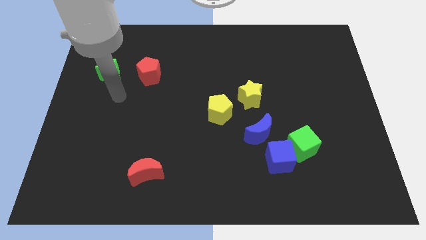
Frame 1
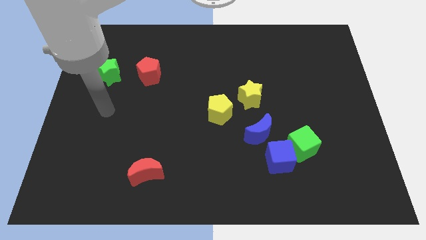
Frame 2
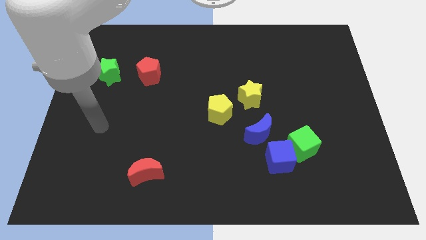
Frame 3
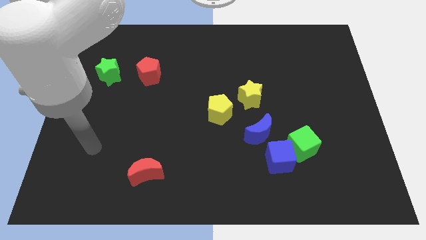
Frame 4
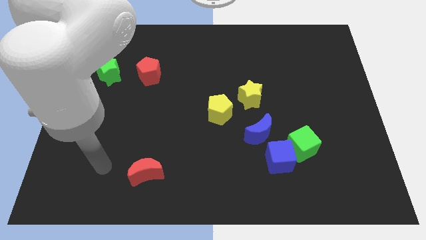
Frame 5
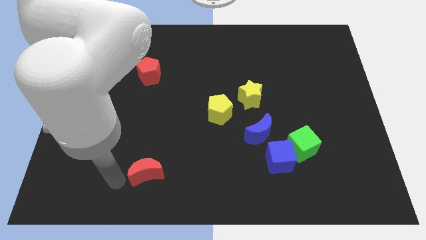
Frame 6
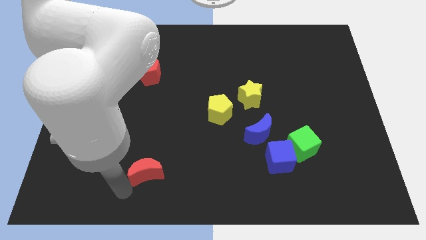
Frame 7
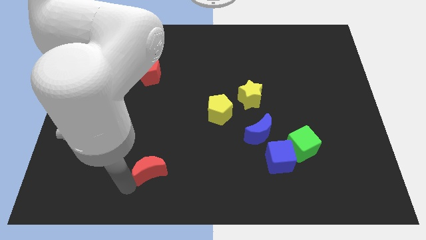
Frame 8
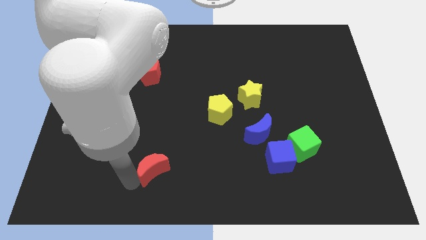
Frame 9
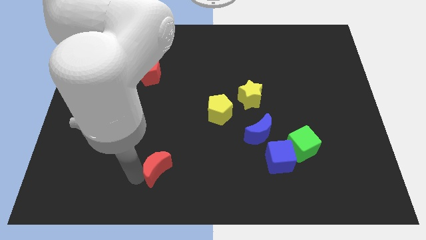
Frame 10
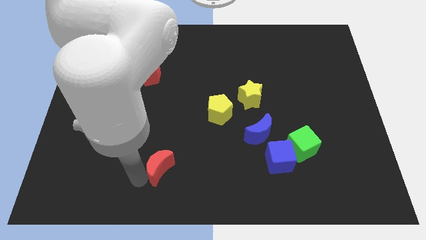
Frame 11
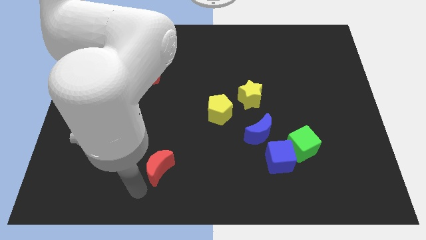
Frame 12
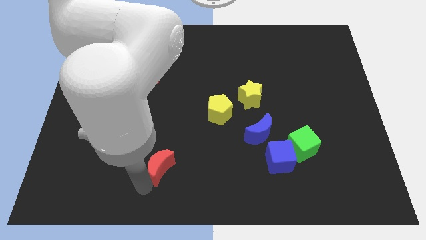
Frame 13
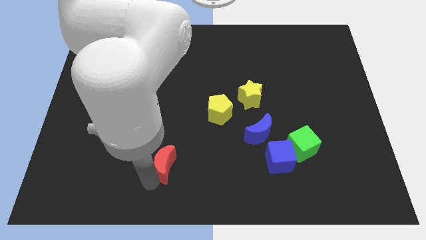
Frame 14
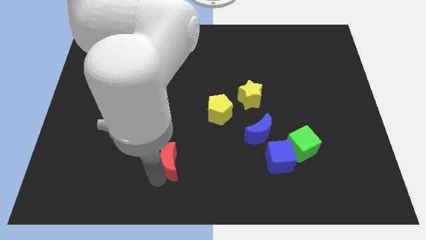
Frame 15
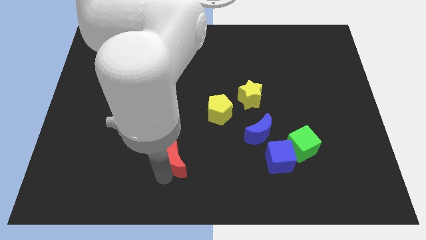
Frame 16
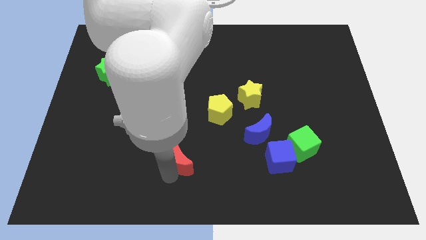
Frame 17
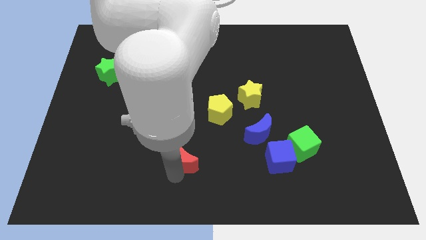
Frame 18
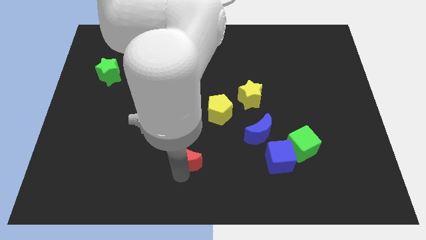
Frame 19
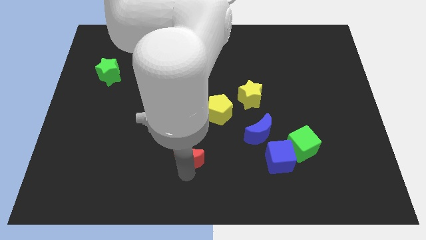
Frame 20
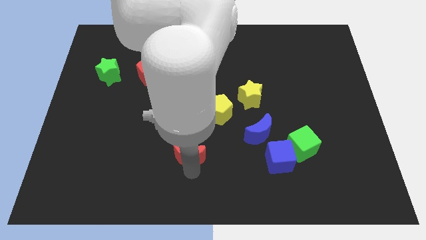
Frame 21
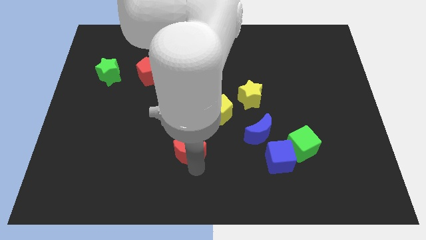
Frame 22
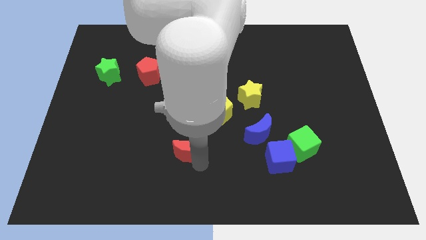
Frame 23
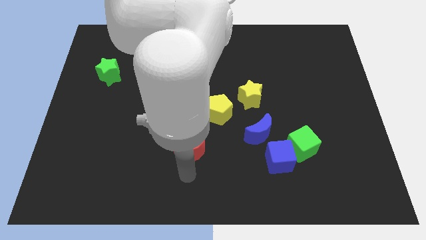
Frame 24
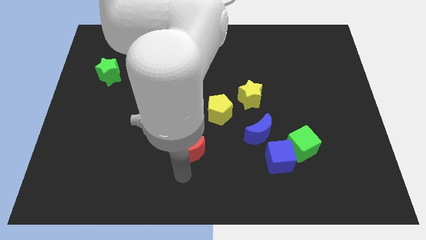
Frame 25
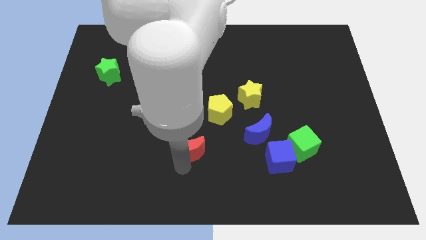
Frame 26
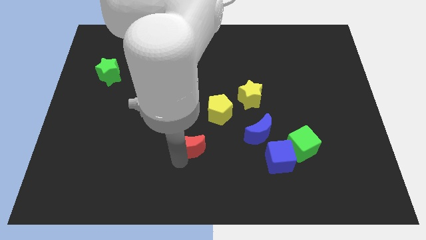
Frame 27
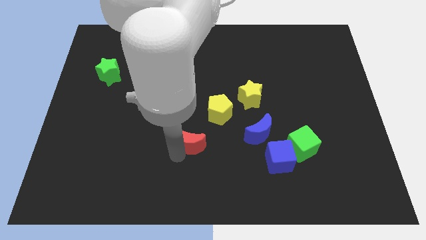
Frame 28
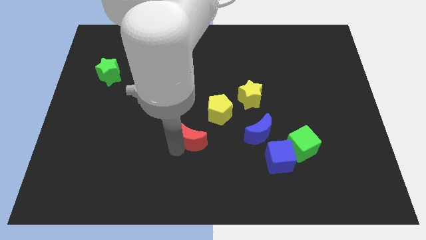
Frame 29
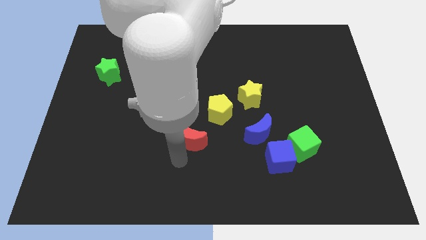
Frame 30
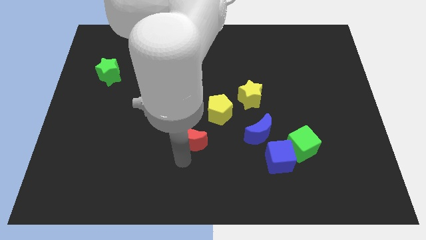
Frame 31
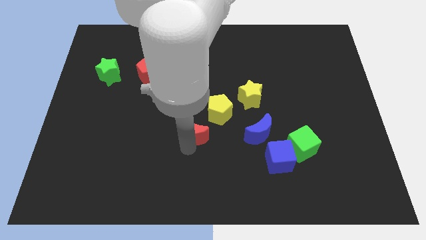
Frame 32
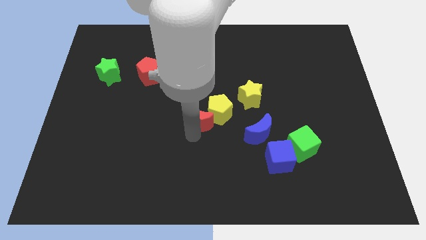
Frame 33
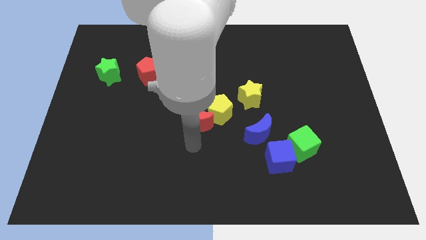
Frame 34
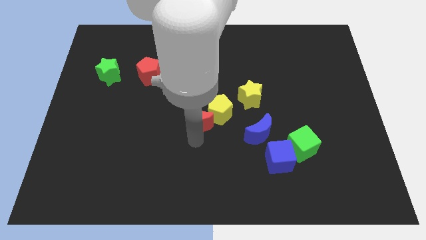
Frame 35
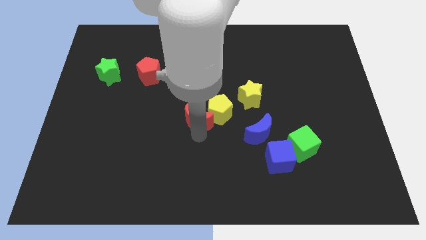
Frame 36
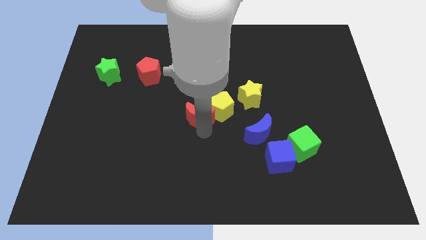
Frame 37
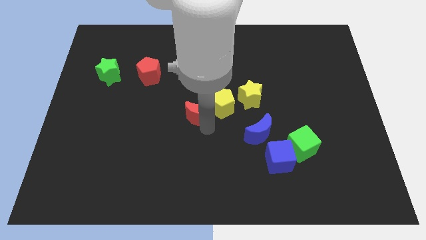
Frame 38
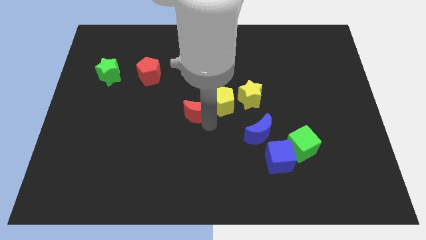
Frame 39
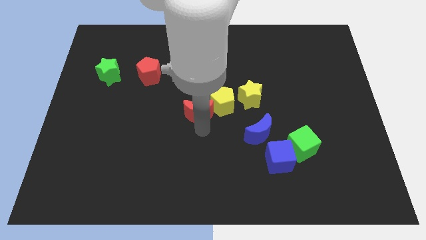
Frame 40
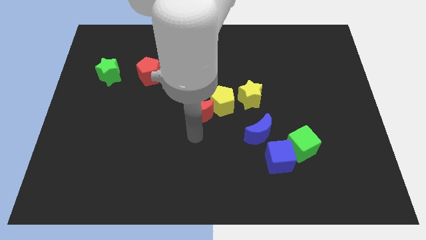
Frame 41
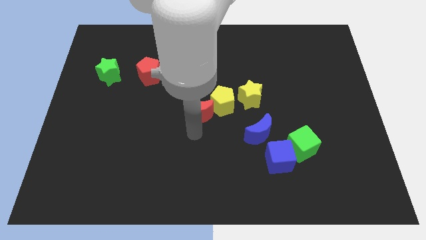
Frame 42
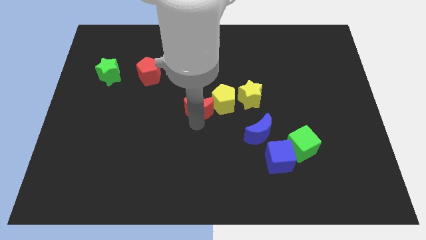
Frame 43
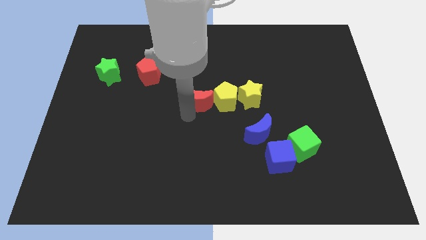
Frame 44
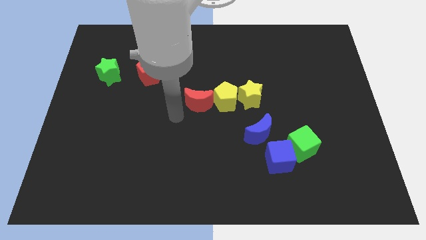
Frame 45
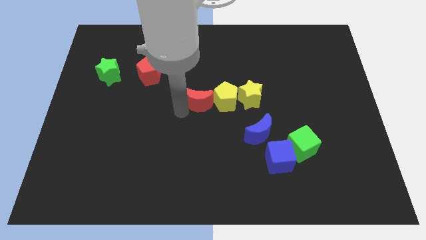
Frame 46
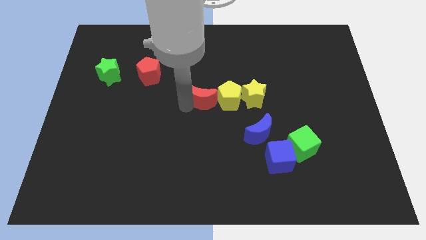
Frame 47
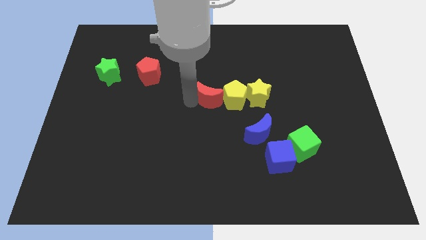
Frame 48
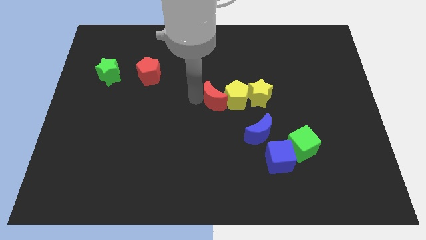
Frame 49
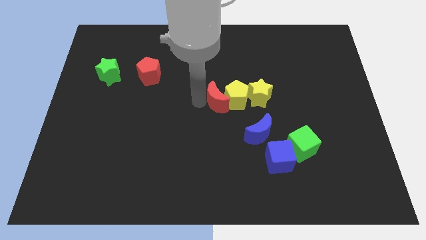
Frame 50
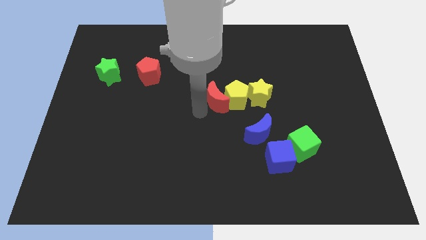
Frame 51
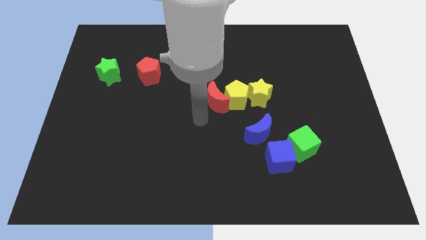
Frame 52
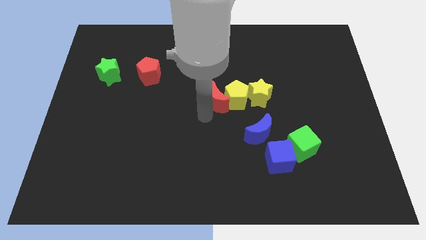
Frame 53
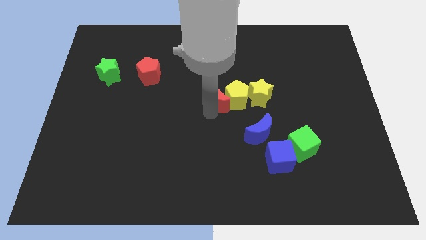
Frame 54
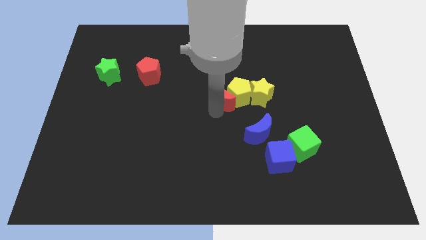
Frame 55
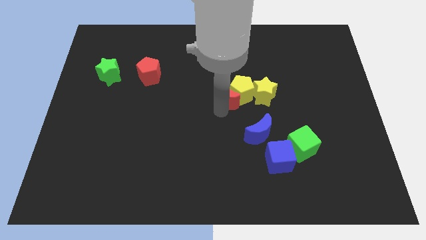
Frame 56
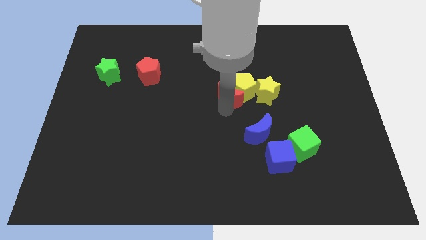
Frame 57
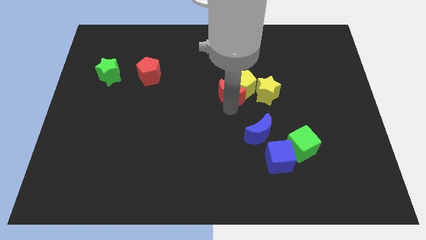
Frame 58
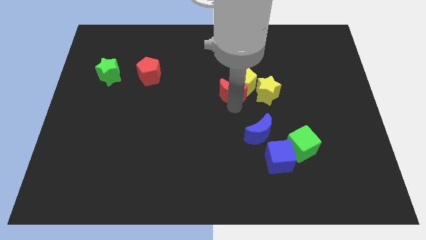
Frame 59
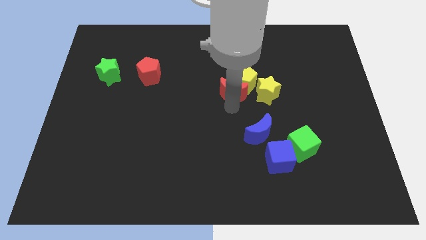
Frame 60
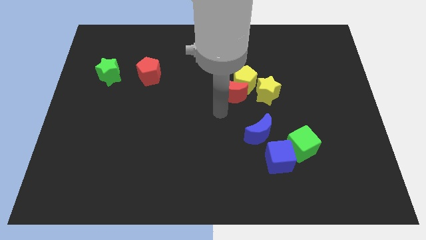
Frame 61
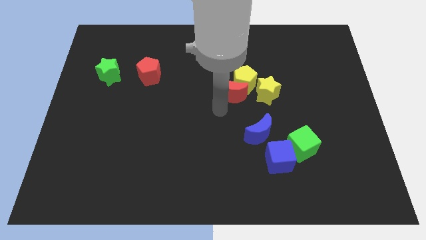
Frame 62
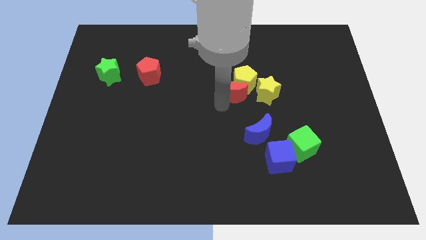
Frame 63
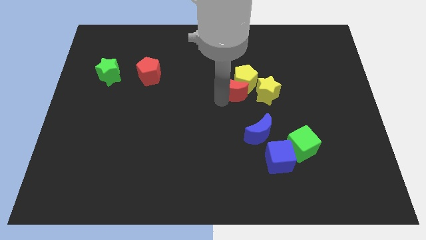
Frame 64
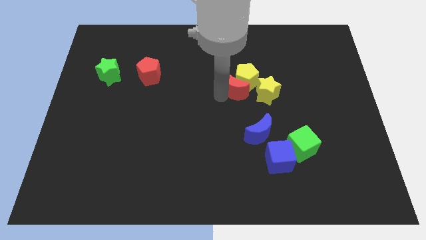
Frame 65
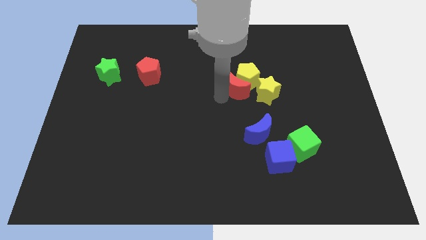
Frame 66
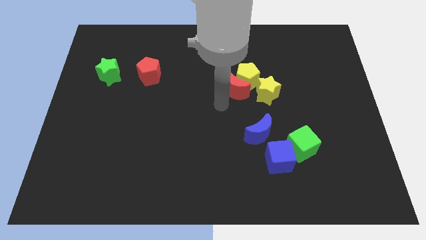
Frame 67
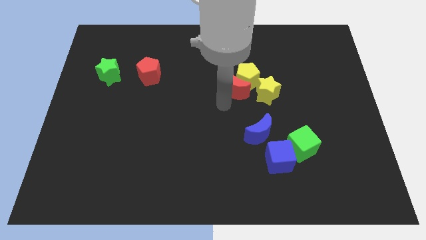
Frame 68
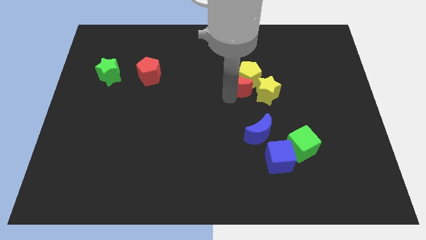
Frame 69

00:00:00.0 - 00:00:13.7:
move the red moon to the top side of the blue moon
